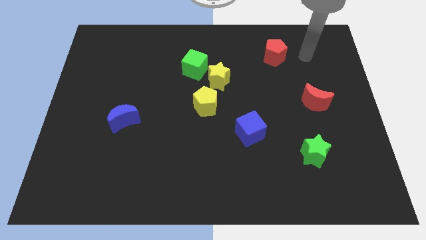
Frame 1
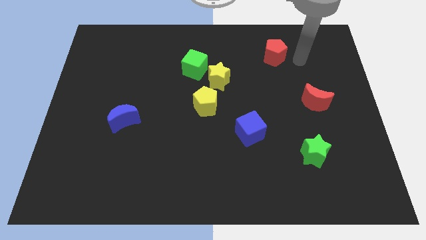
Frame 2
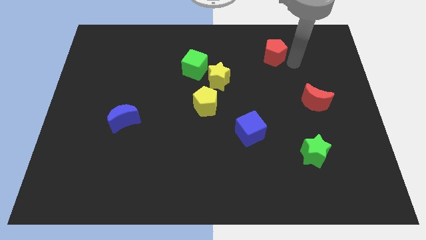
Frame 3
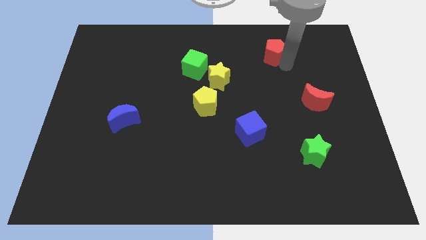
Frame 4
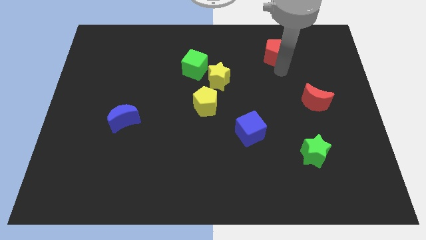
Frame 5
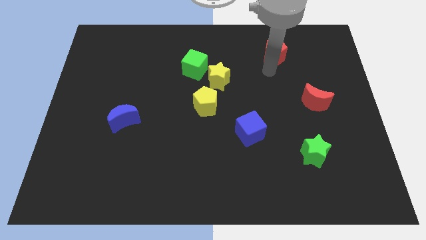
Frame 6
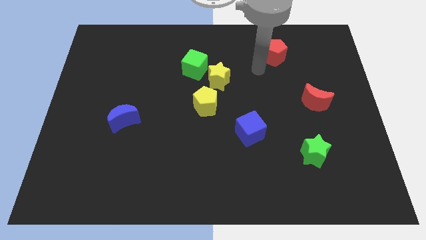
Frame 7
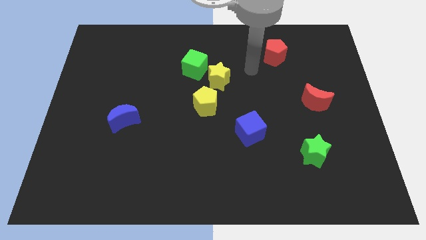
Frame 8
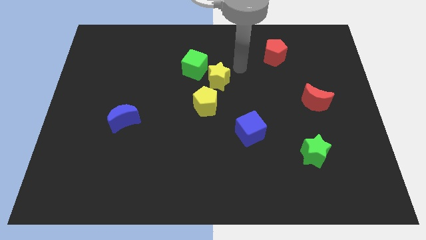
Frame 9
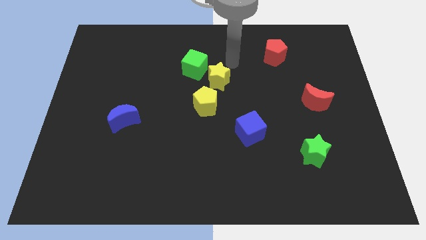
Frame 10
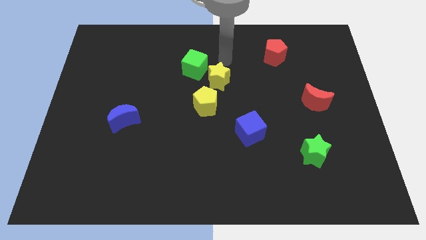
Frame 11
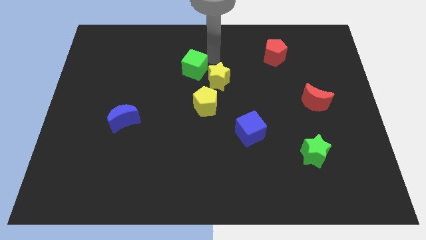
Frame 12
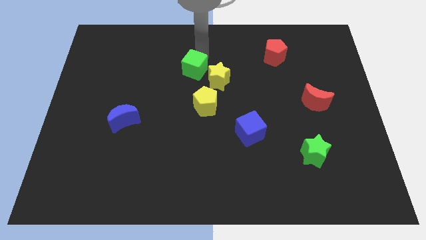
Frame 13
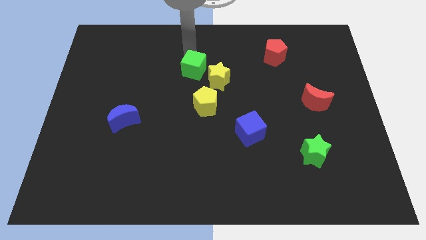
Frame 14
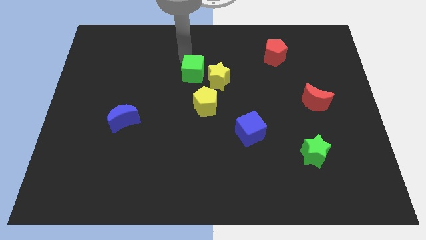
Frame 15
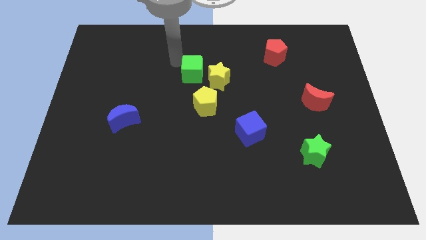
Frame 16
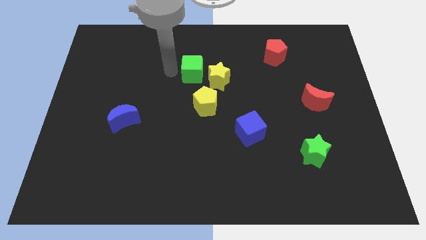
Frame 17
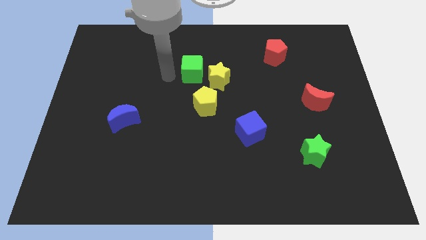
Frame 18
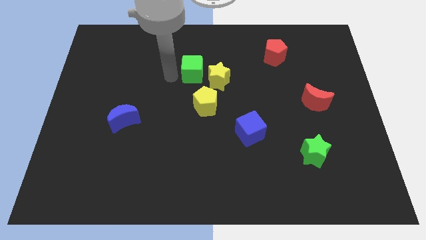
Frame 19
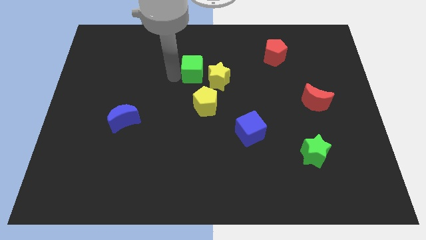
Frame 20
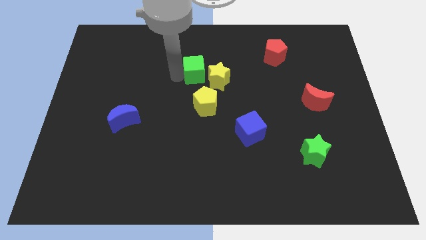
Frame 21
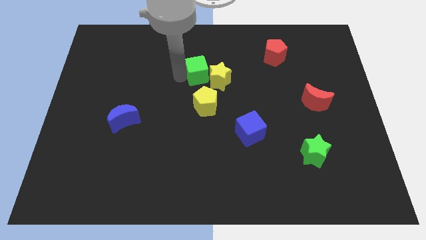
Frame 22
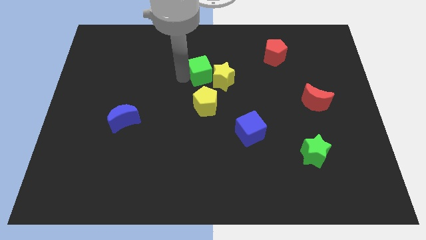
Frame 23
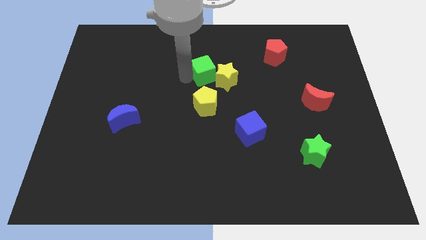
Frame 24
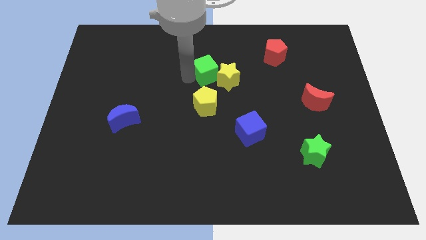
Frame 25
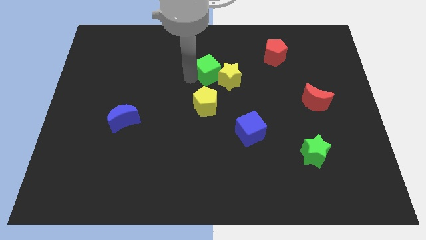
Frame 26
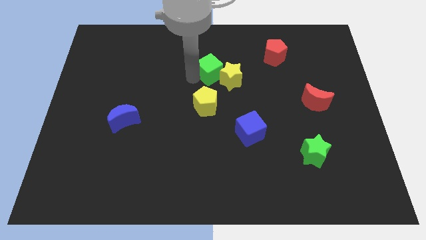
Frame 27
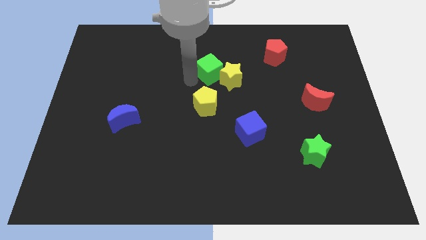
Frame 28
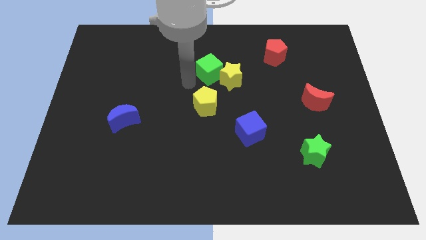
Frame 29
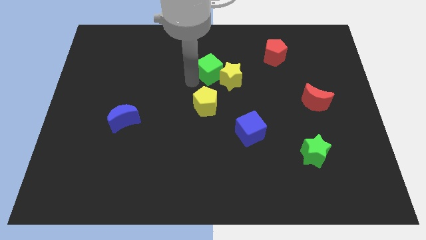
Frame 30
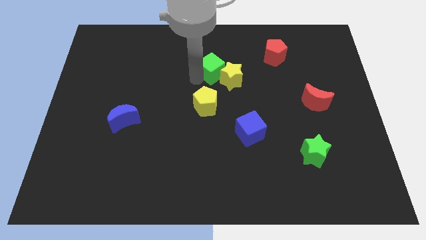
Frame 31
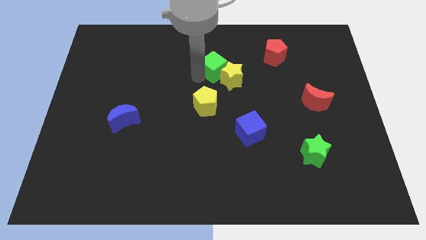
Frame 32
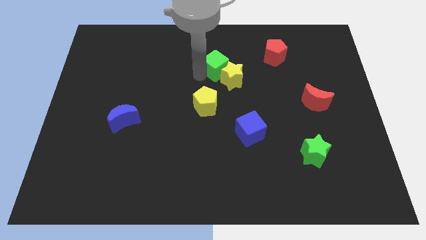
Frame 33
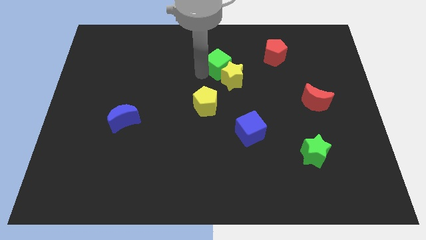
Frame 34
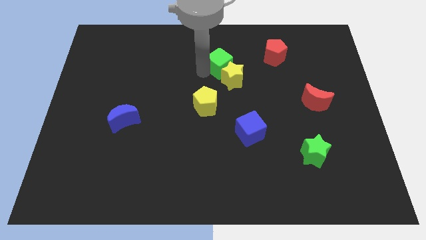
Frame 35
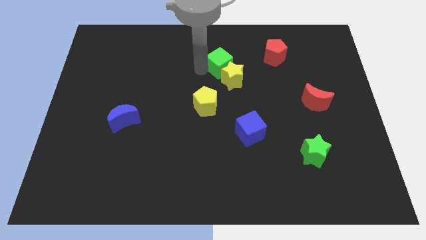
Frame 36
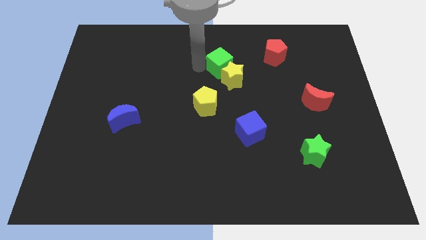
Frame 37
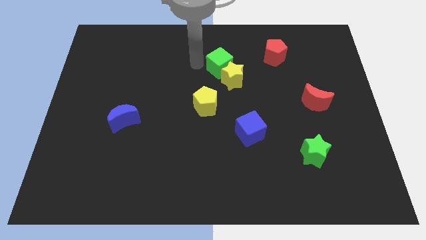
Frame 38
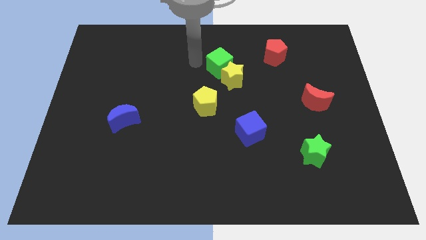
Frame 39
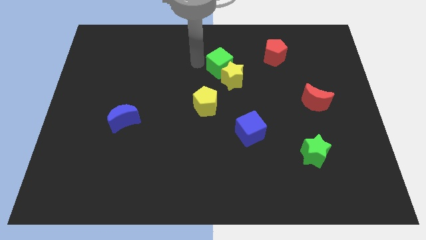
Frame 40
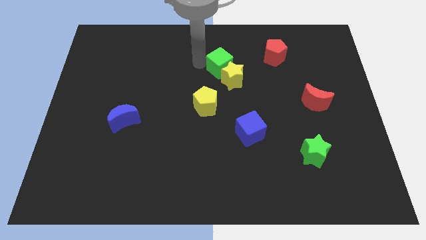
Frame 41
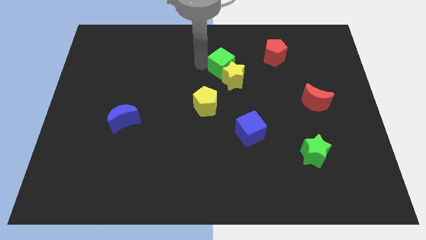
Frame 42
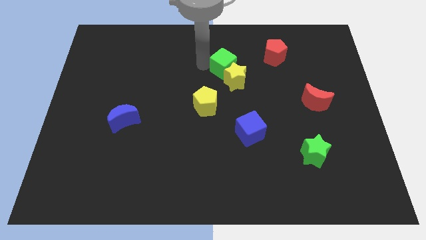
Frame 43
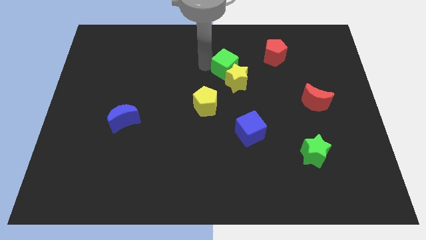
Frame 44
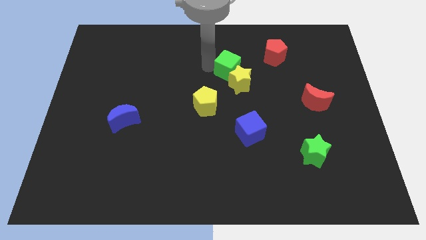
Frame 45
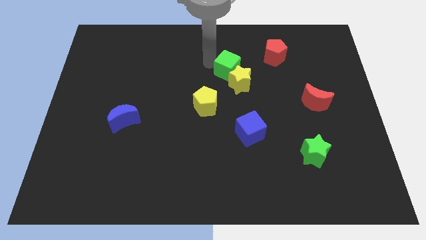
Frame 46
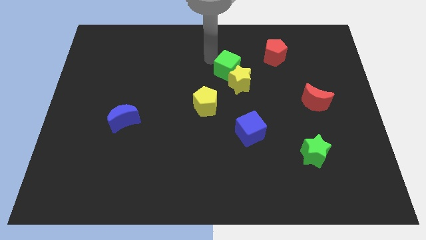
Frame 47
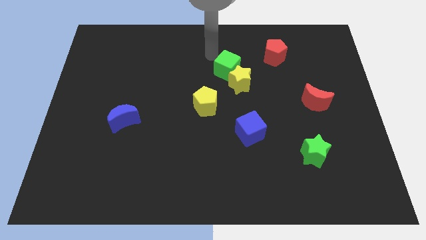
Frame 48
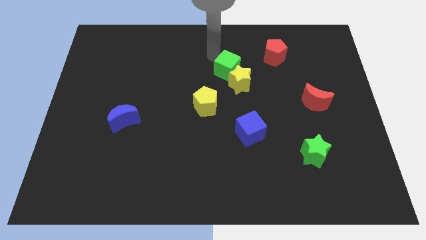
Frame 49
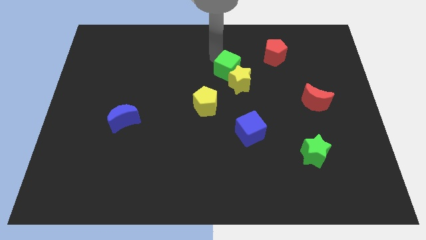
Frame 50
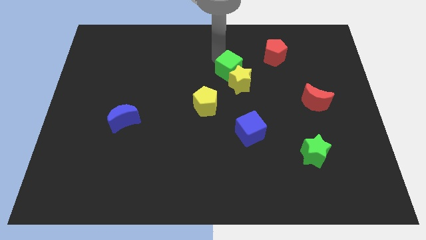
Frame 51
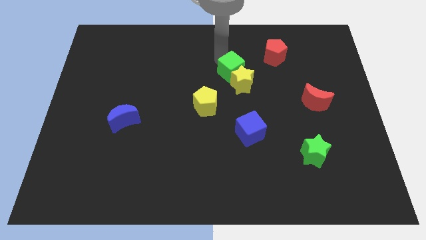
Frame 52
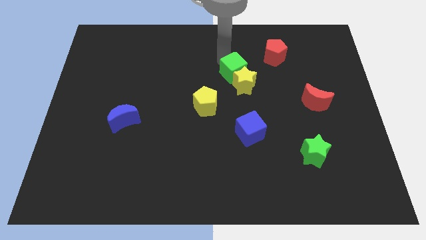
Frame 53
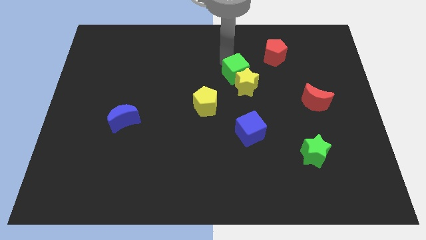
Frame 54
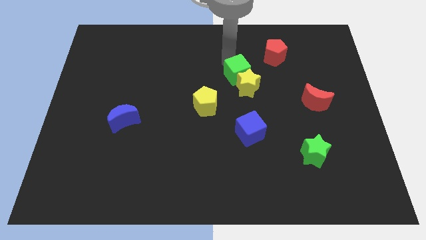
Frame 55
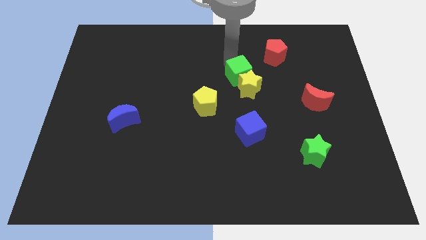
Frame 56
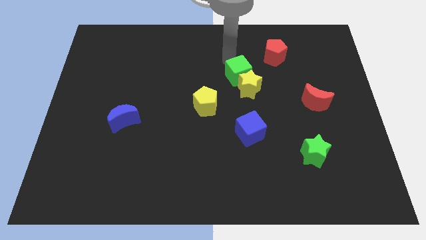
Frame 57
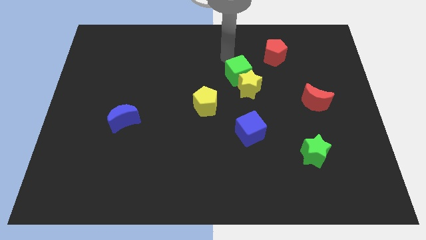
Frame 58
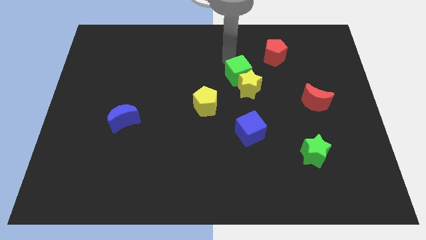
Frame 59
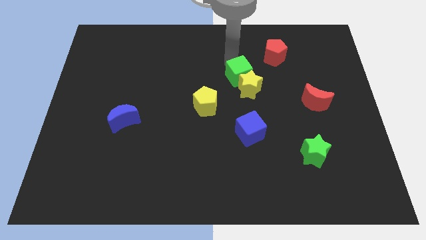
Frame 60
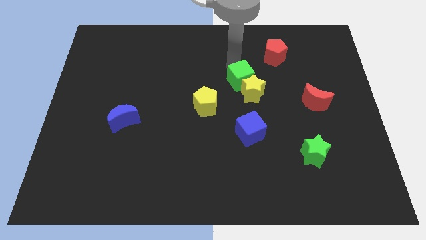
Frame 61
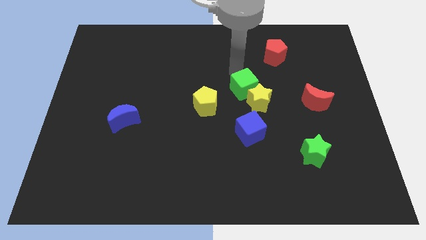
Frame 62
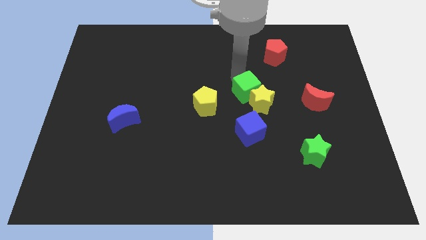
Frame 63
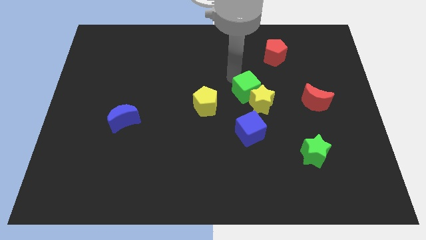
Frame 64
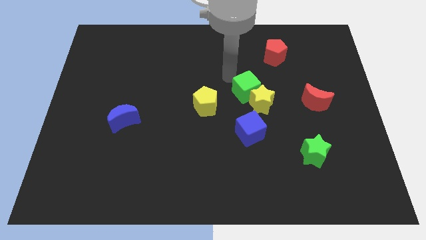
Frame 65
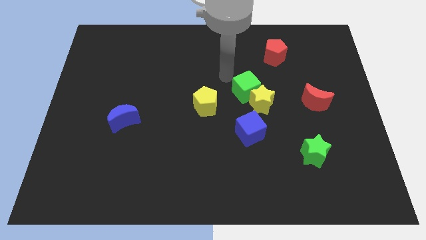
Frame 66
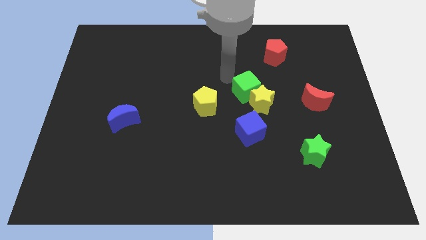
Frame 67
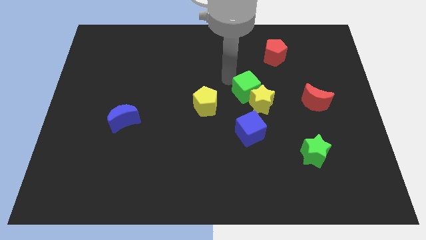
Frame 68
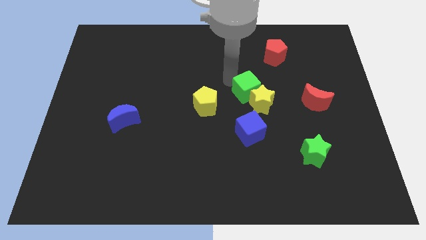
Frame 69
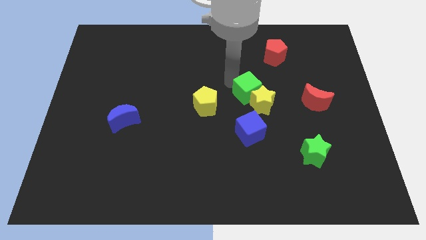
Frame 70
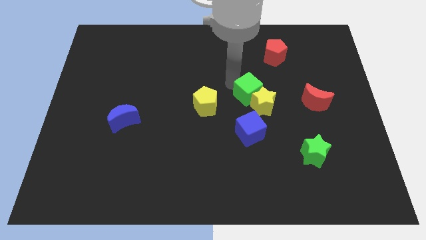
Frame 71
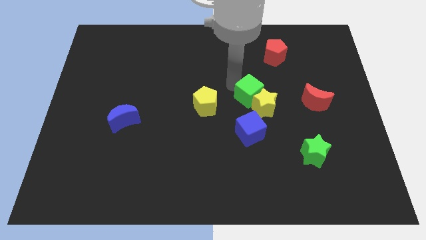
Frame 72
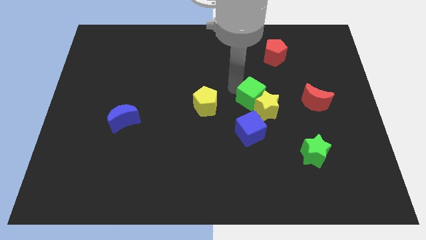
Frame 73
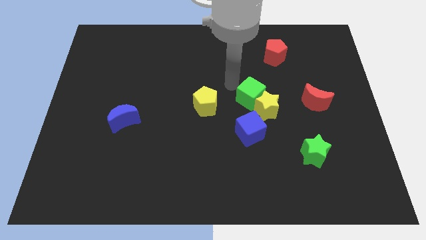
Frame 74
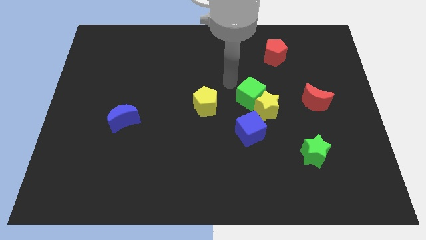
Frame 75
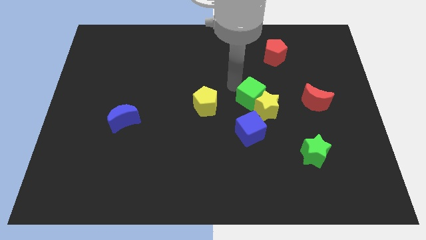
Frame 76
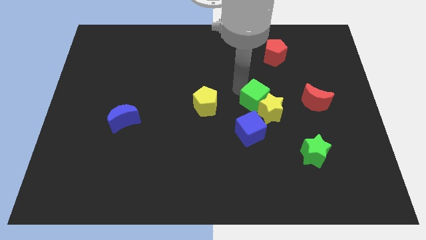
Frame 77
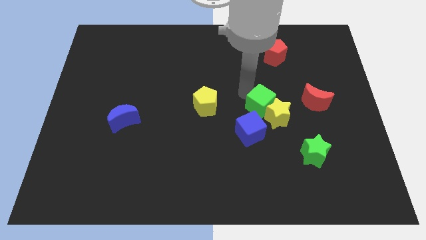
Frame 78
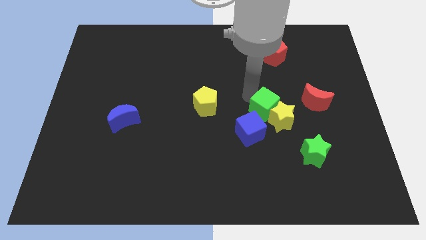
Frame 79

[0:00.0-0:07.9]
push the green cube downwards and right diagonally
